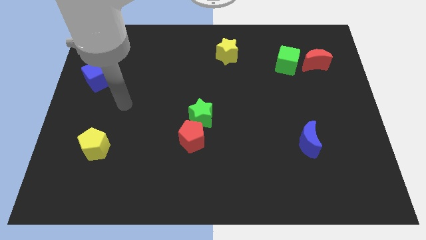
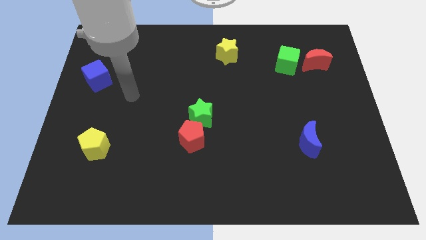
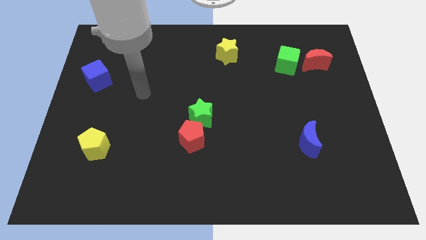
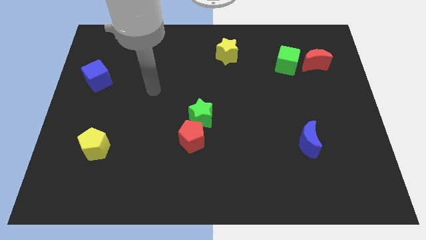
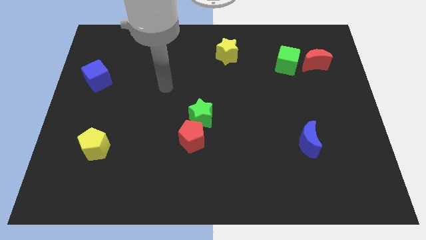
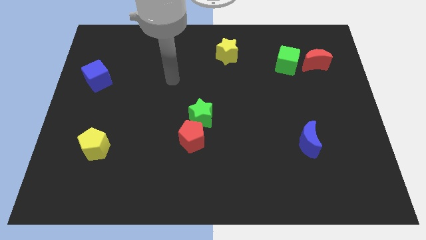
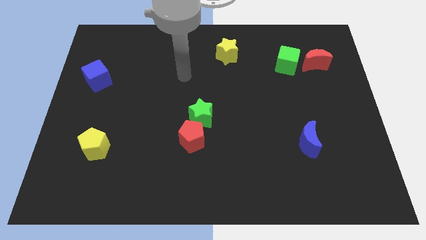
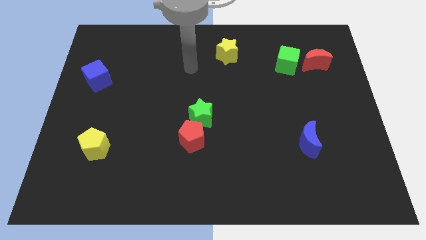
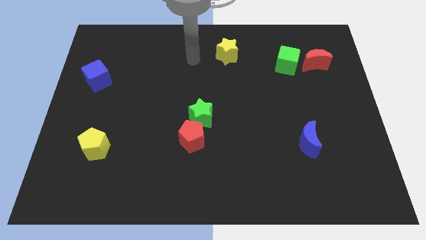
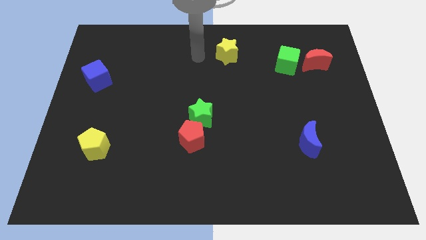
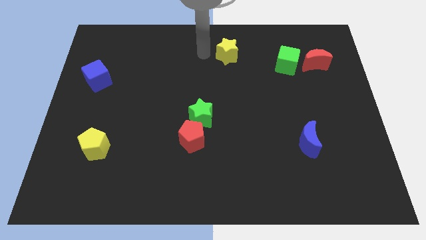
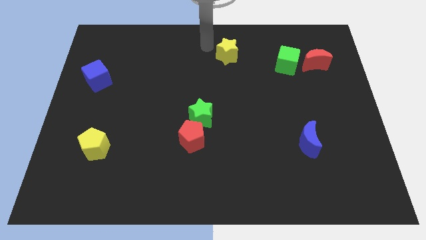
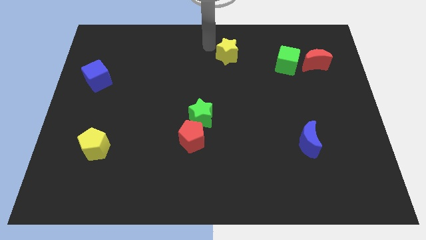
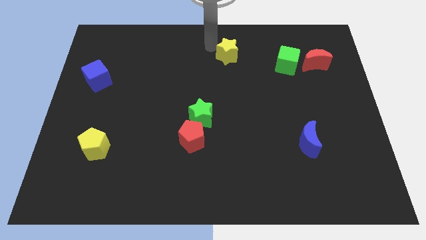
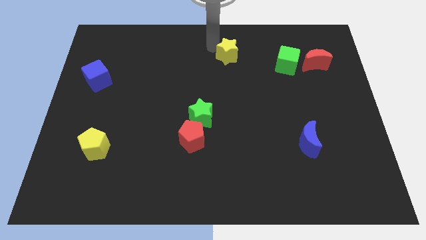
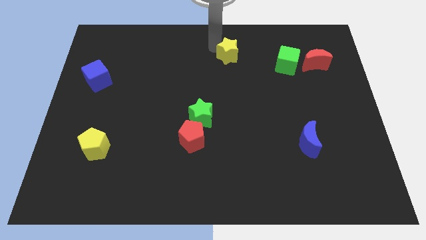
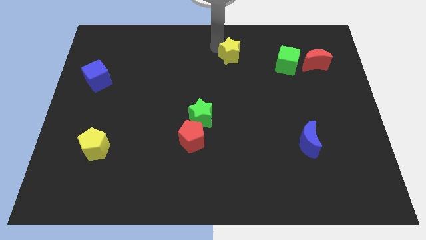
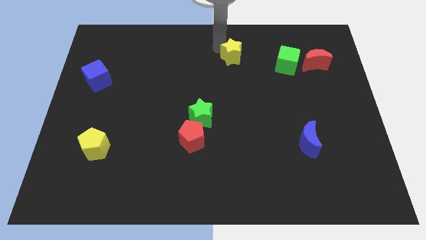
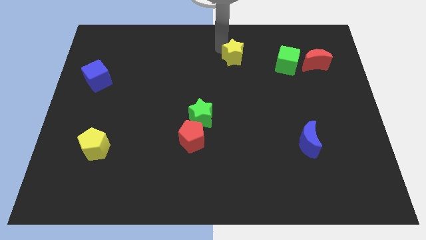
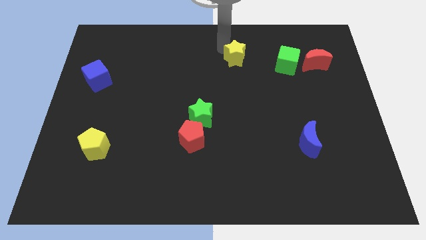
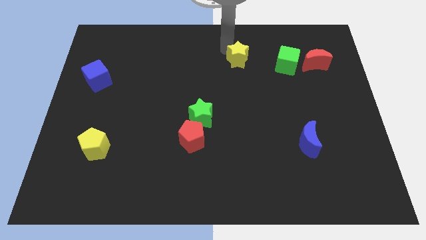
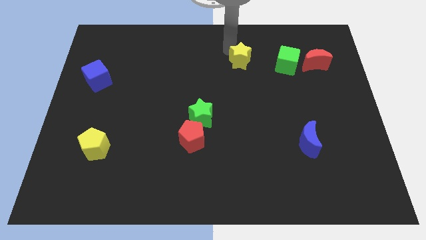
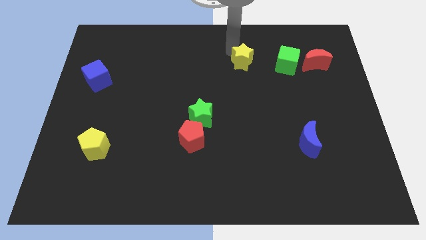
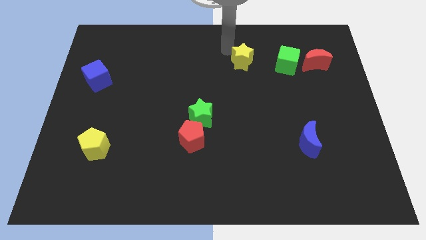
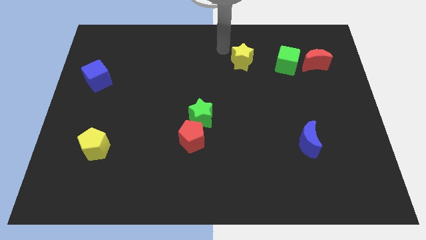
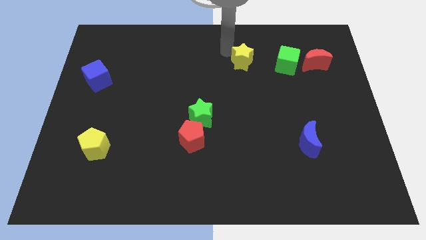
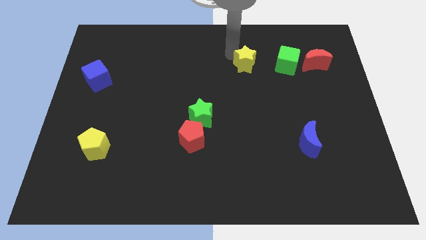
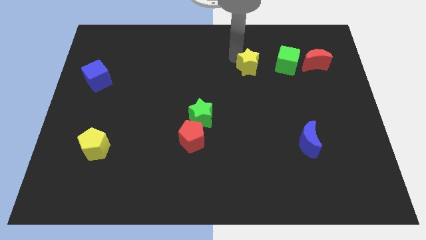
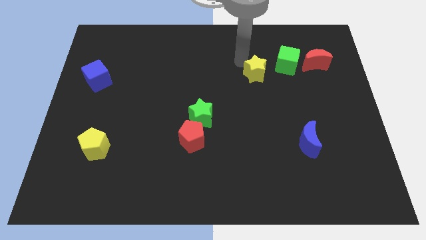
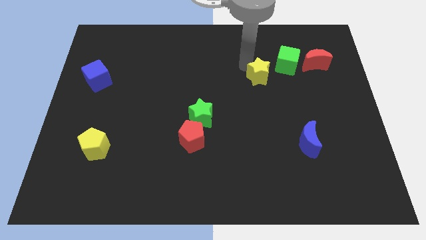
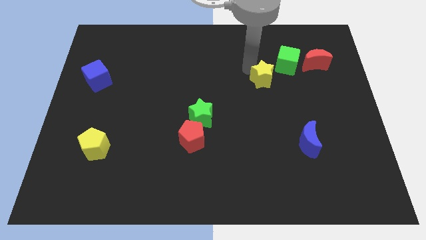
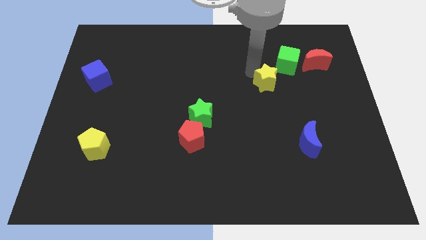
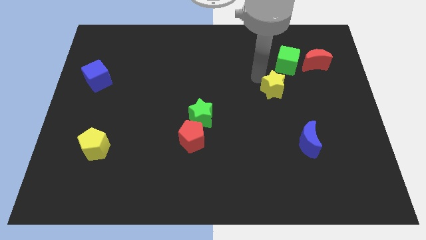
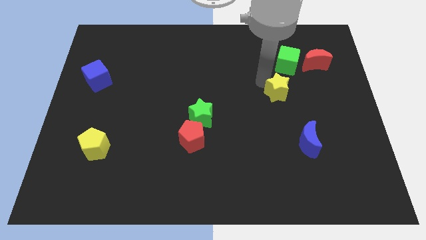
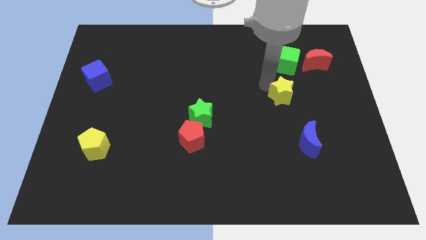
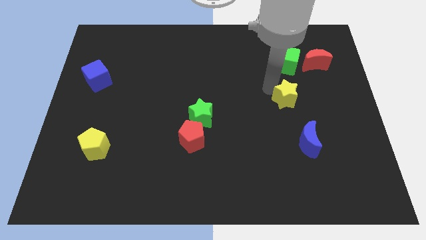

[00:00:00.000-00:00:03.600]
slide the yellow star down and then right

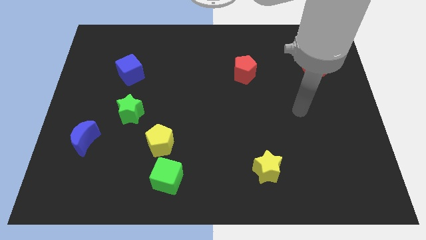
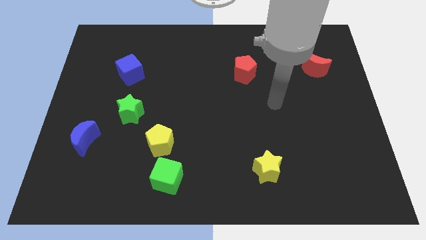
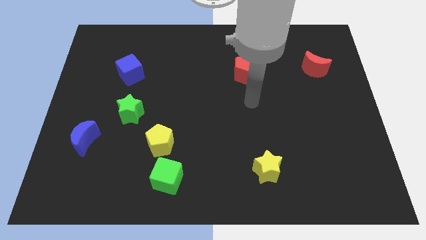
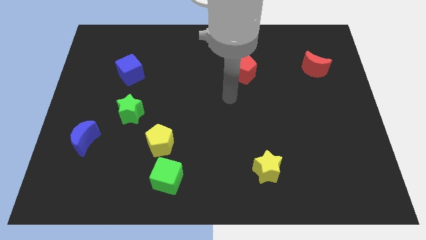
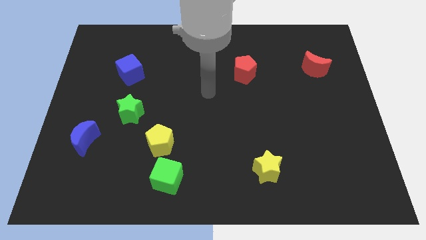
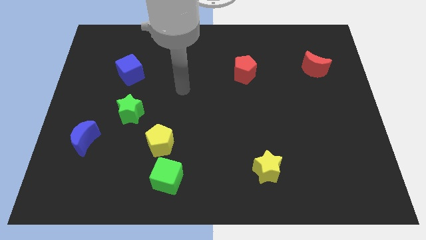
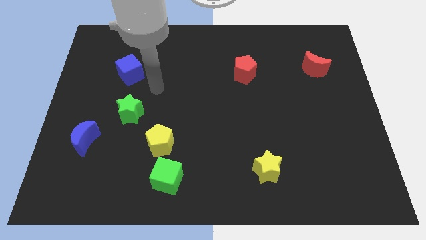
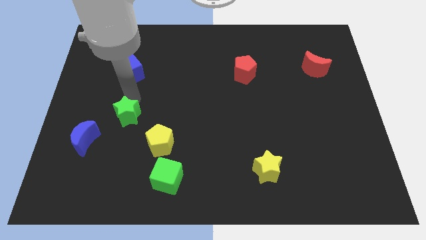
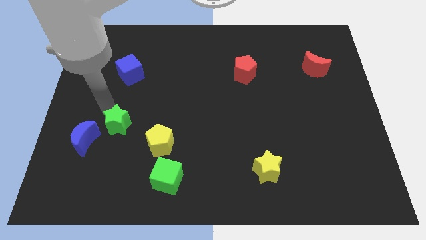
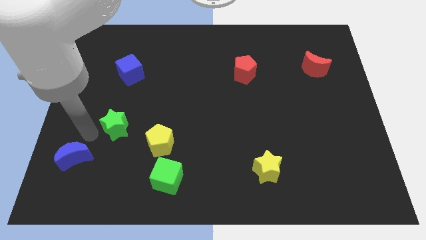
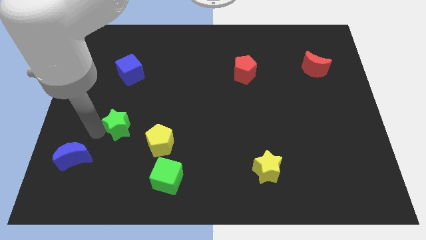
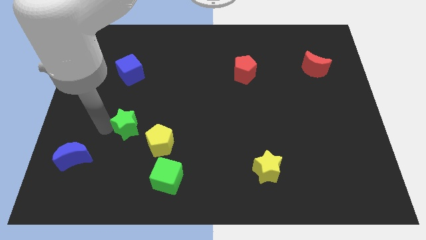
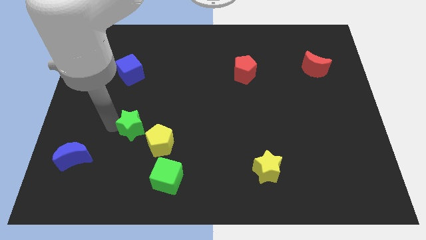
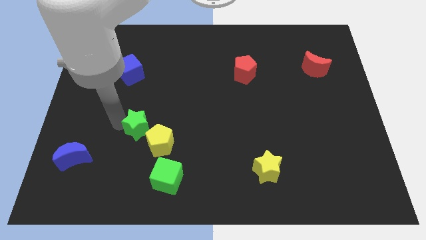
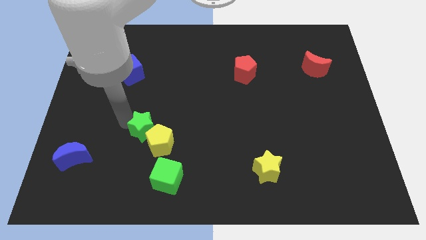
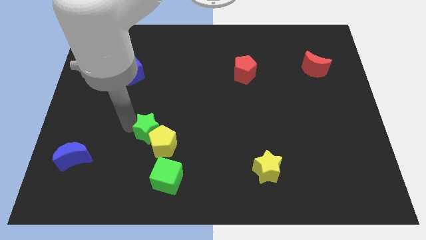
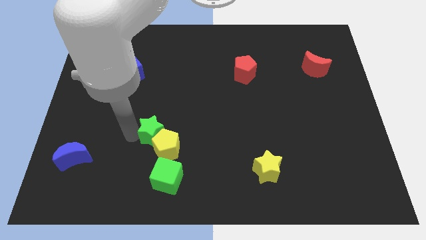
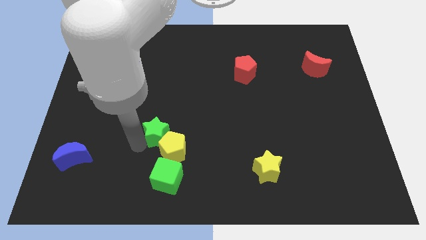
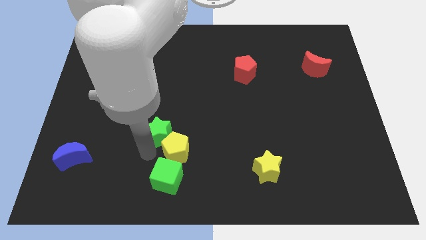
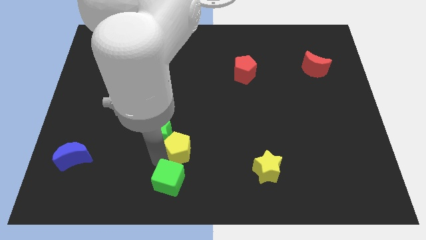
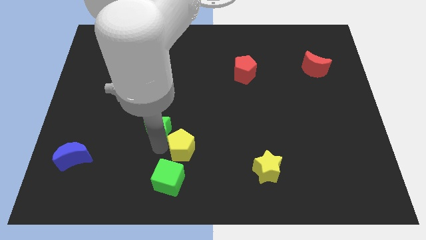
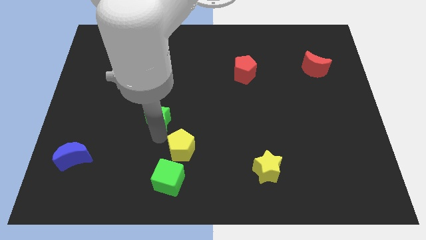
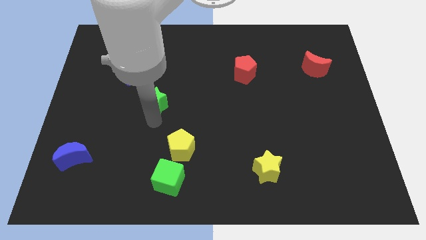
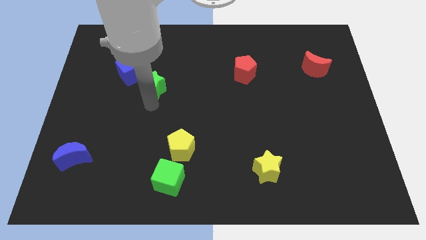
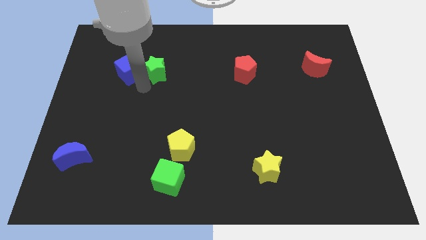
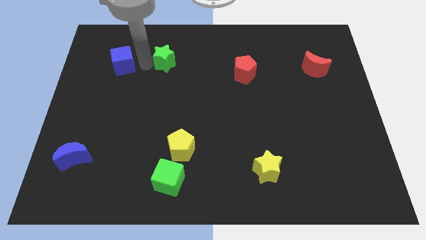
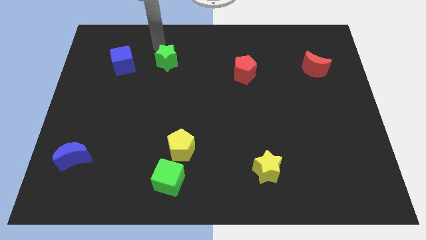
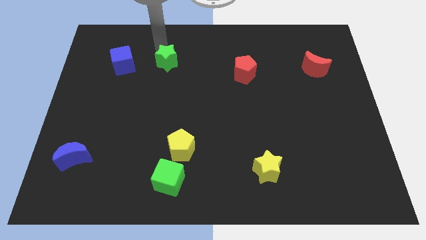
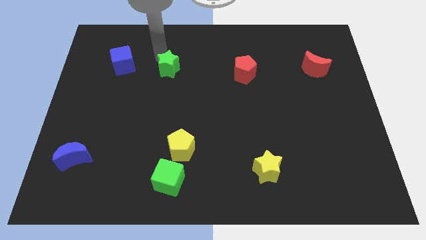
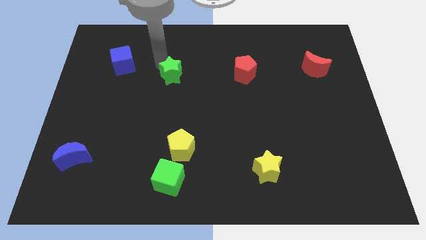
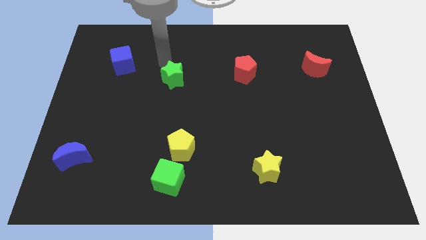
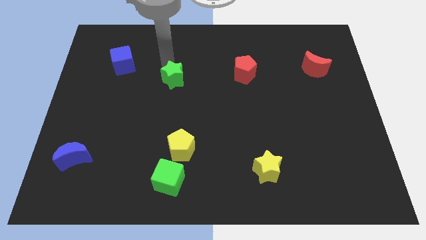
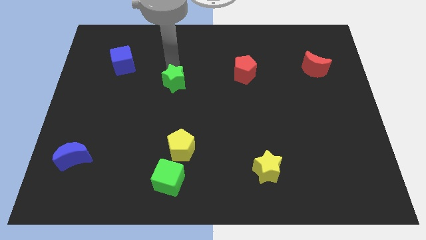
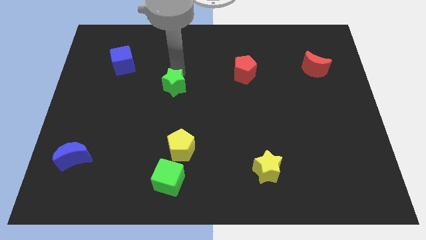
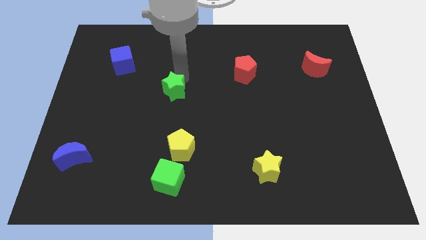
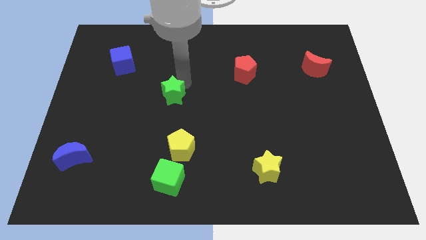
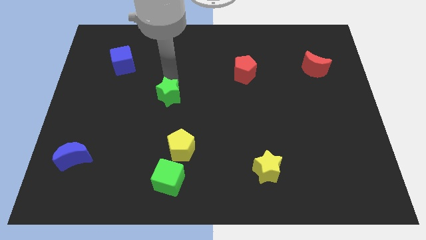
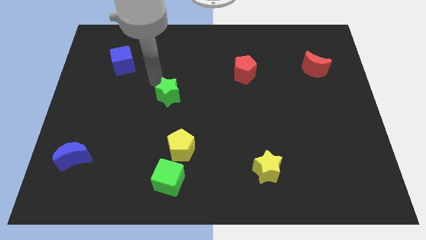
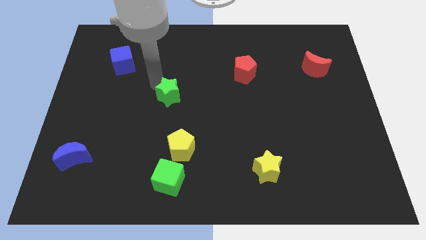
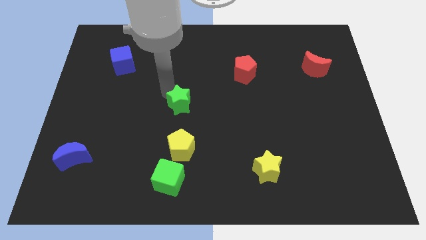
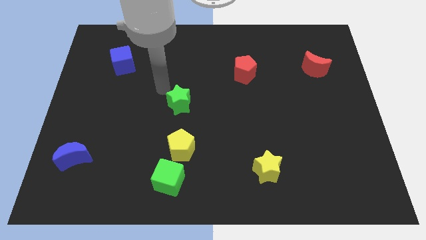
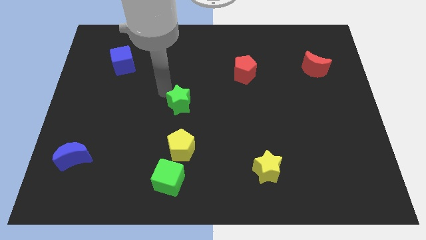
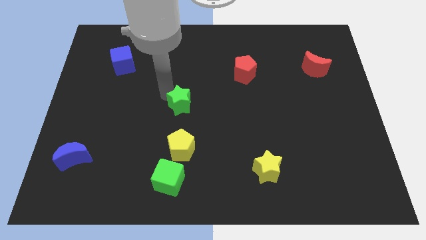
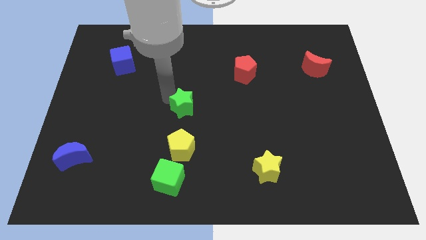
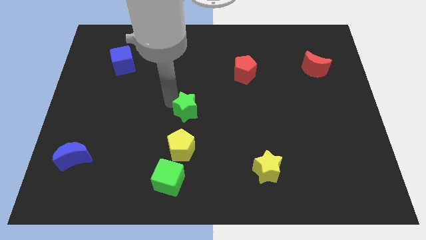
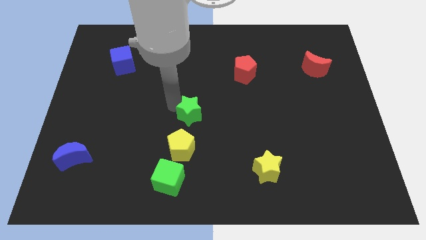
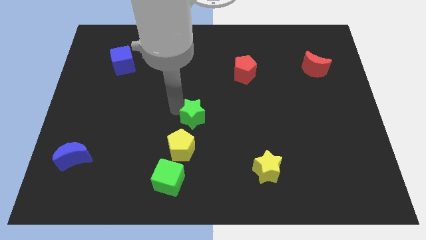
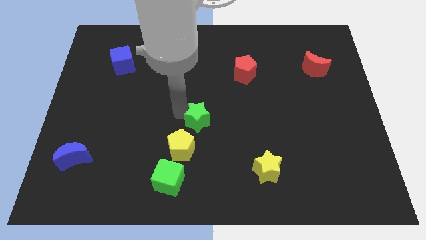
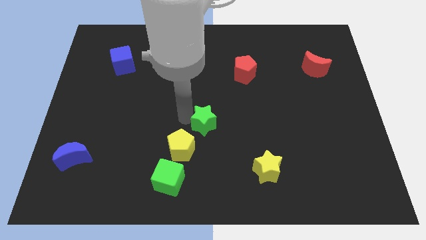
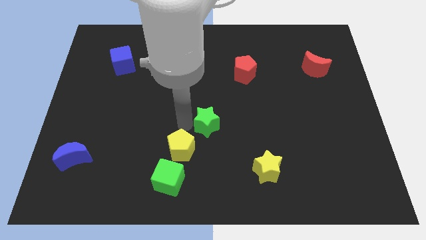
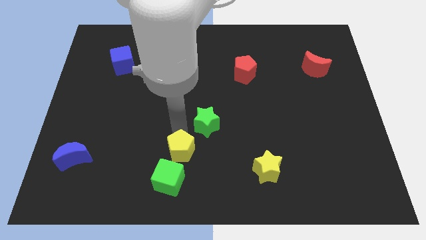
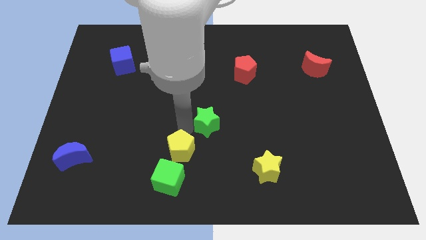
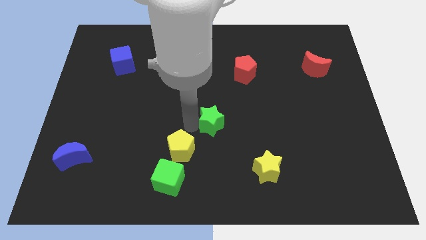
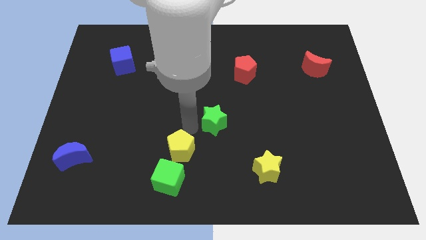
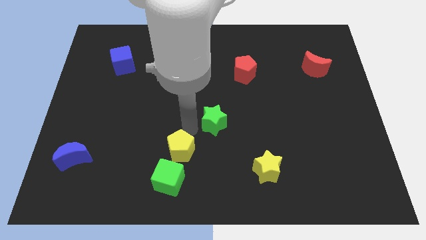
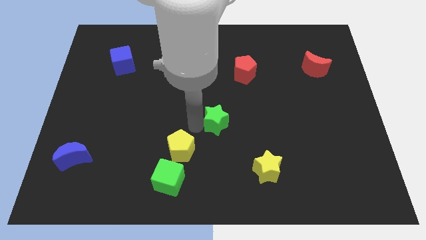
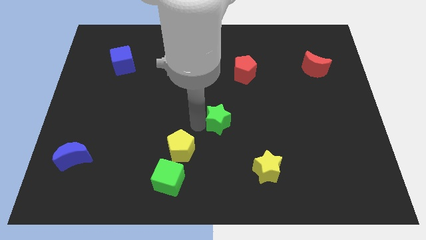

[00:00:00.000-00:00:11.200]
slide the green star to the right
